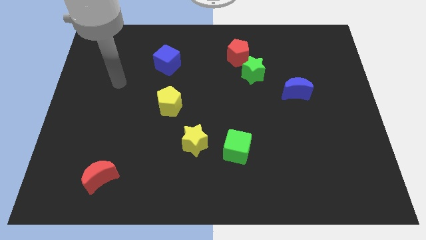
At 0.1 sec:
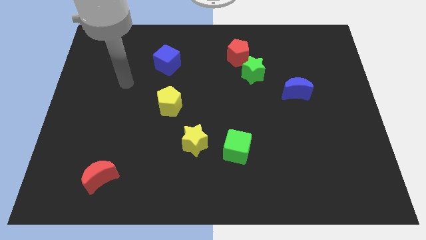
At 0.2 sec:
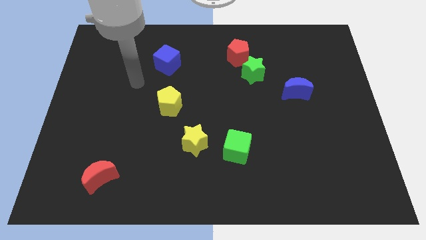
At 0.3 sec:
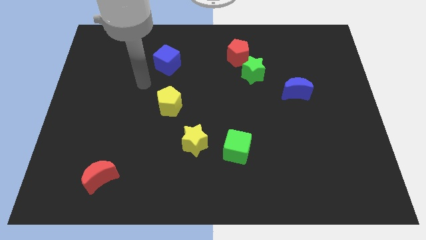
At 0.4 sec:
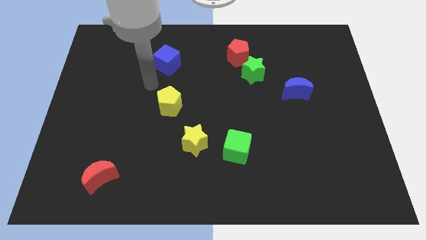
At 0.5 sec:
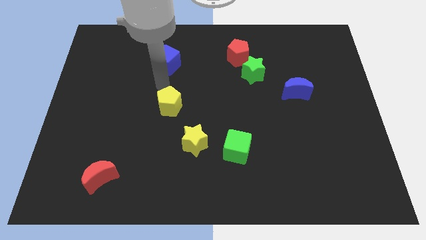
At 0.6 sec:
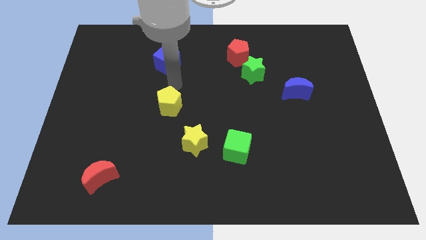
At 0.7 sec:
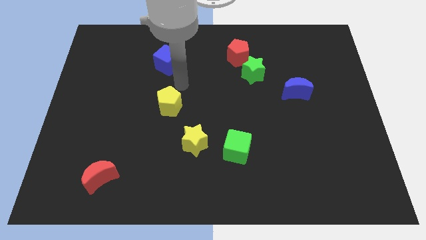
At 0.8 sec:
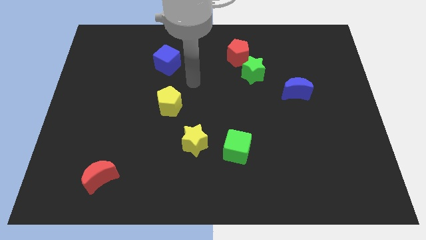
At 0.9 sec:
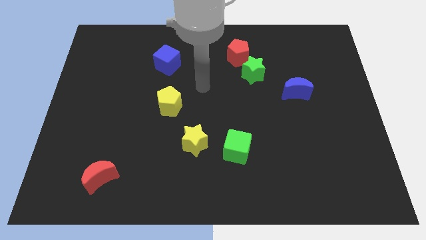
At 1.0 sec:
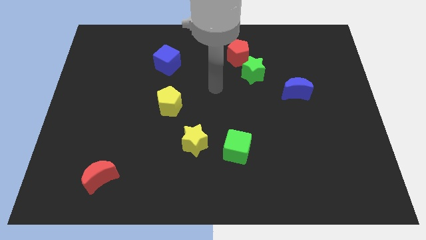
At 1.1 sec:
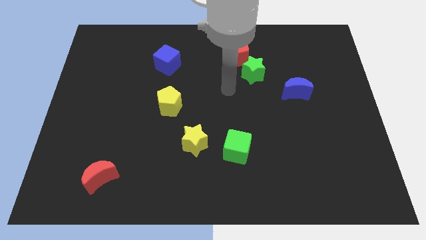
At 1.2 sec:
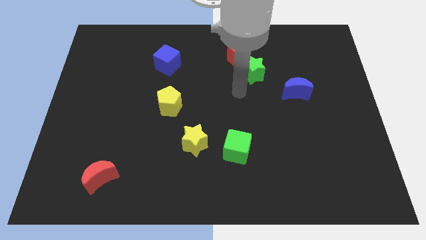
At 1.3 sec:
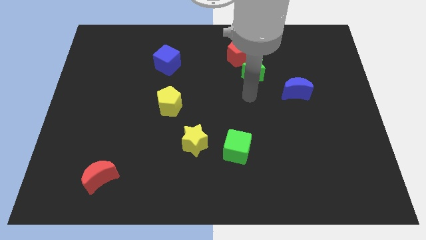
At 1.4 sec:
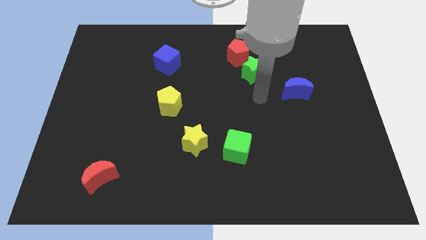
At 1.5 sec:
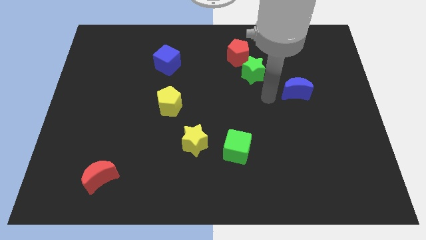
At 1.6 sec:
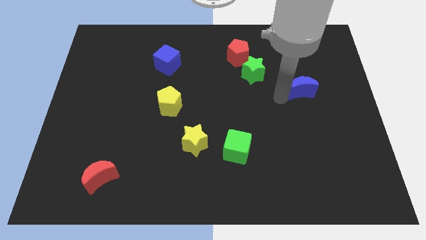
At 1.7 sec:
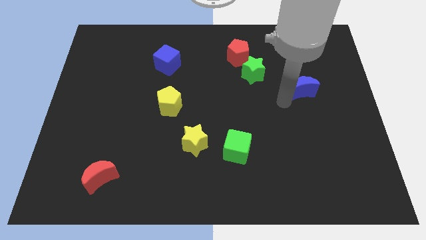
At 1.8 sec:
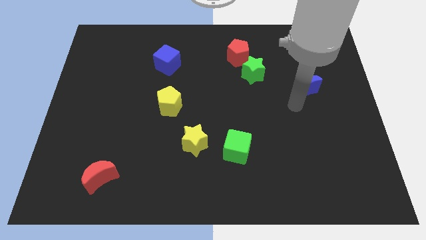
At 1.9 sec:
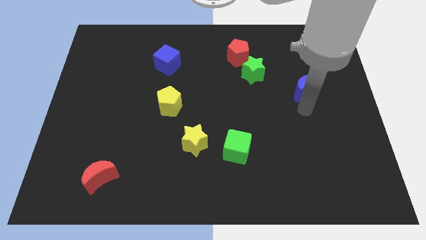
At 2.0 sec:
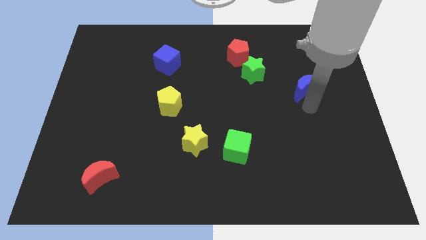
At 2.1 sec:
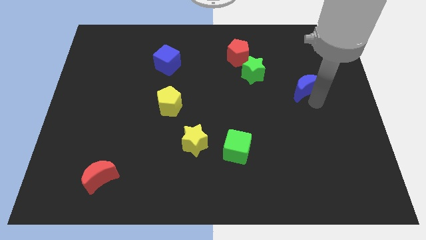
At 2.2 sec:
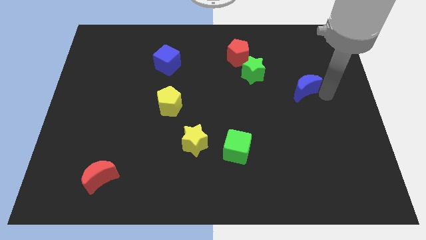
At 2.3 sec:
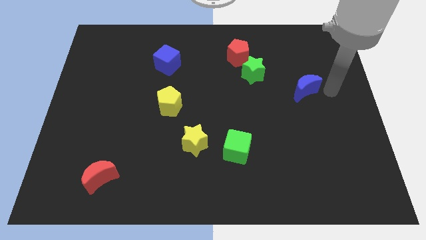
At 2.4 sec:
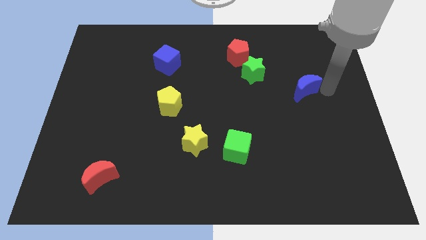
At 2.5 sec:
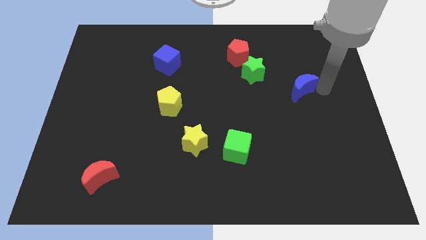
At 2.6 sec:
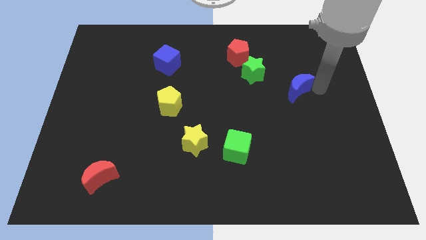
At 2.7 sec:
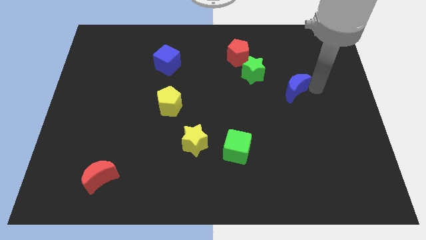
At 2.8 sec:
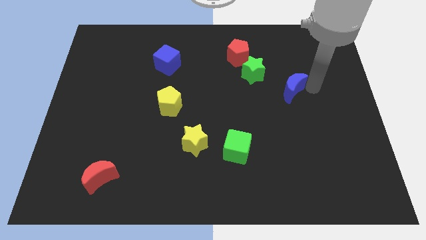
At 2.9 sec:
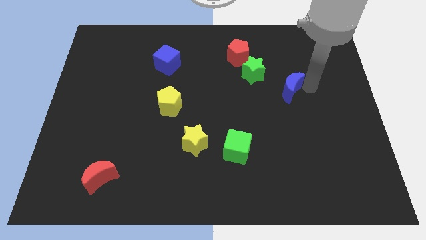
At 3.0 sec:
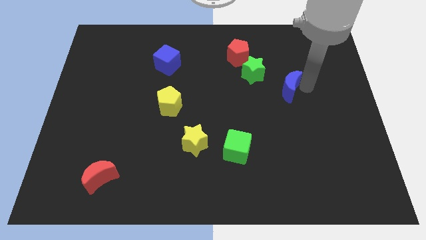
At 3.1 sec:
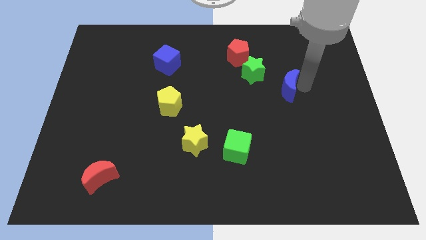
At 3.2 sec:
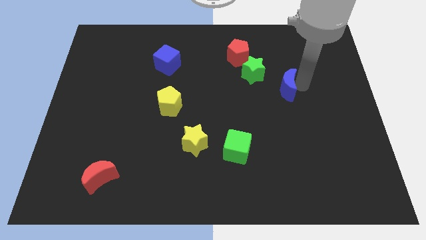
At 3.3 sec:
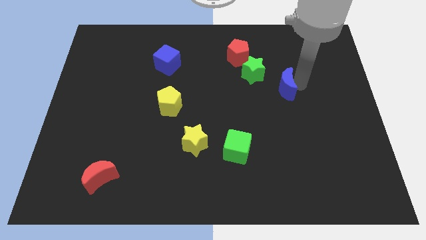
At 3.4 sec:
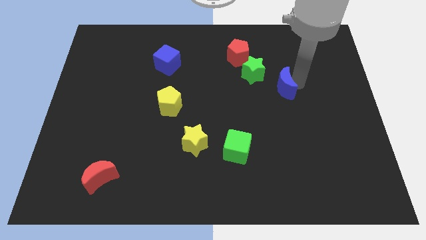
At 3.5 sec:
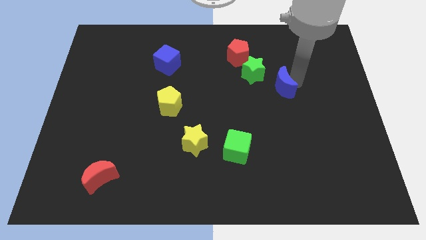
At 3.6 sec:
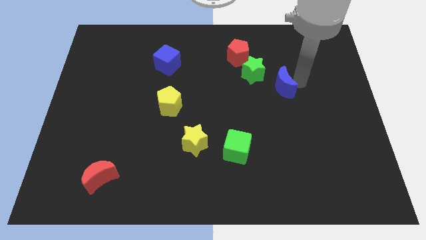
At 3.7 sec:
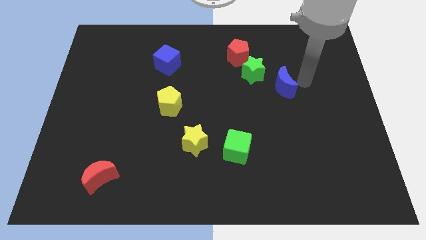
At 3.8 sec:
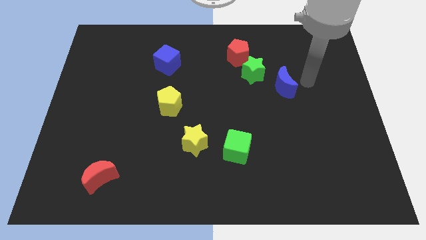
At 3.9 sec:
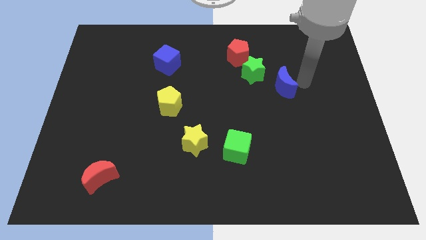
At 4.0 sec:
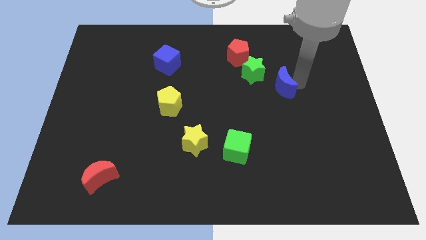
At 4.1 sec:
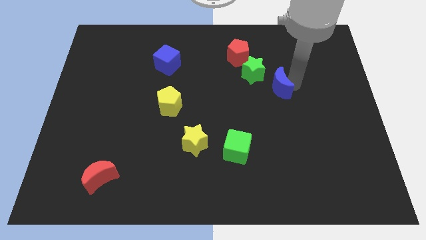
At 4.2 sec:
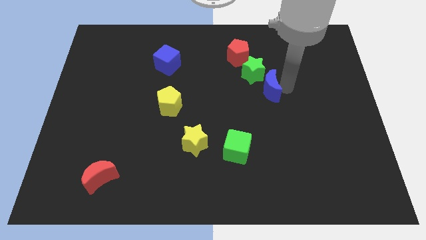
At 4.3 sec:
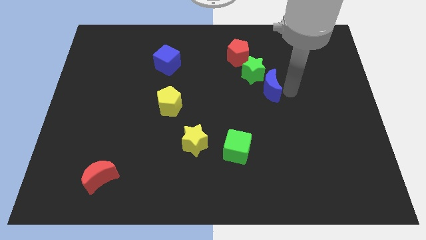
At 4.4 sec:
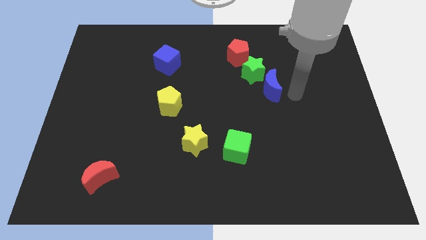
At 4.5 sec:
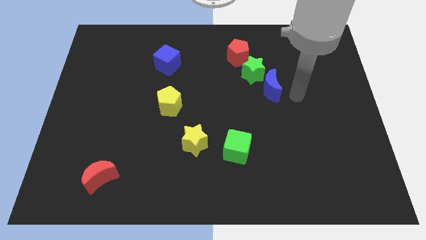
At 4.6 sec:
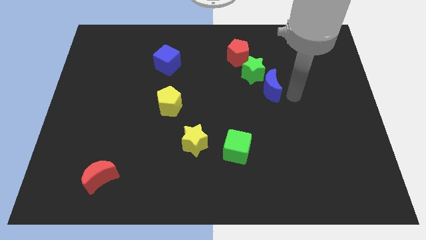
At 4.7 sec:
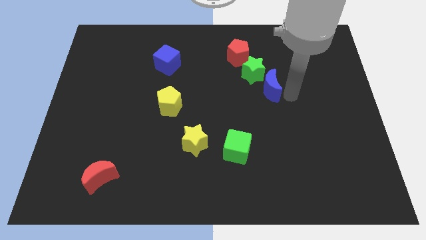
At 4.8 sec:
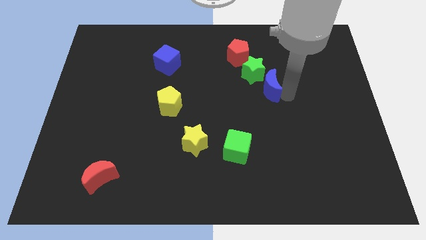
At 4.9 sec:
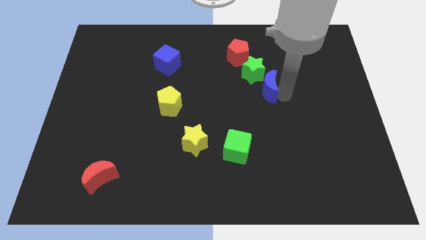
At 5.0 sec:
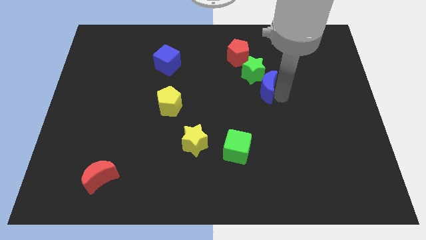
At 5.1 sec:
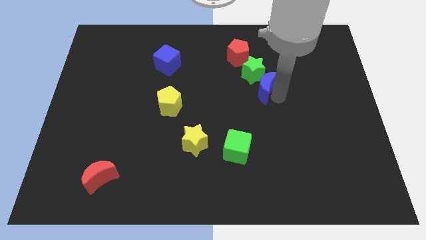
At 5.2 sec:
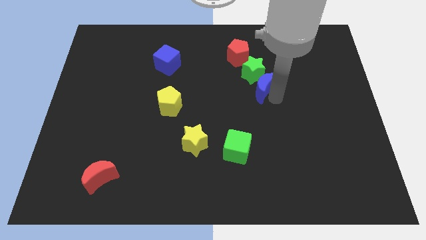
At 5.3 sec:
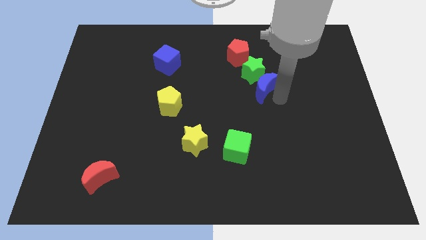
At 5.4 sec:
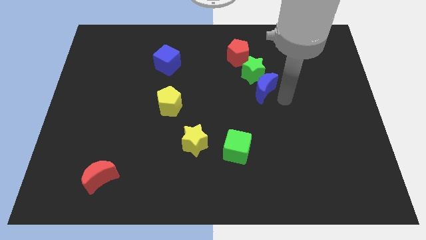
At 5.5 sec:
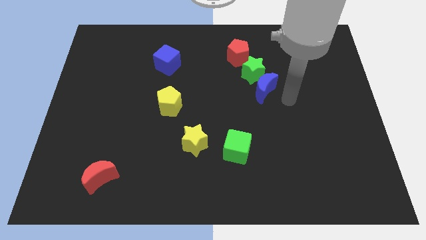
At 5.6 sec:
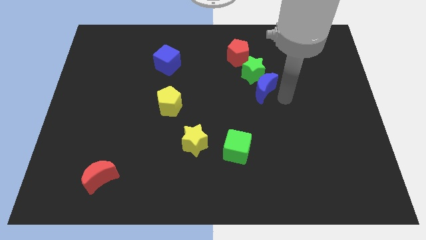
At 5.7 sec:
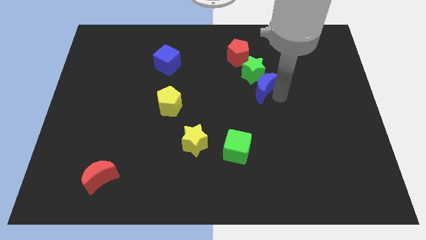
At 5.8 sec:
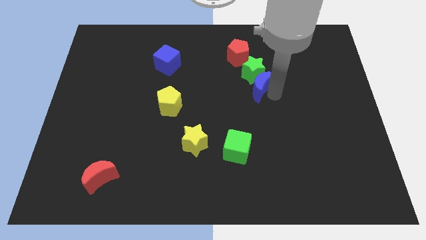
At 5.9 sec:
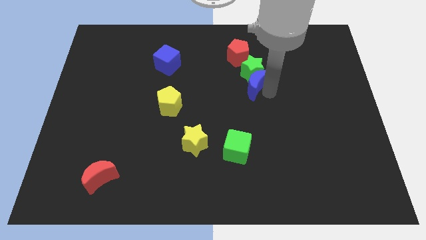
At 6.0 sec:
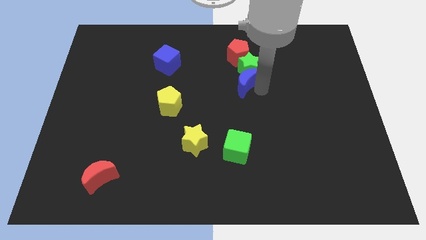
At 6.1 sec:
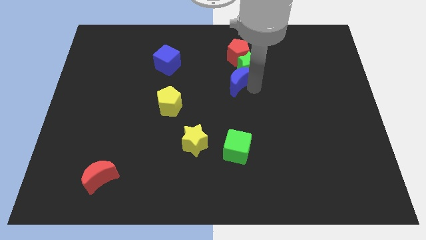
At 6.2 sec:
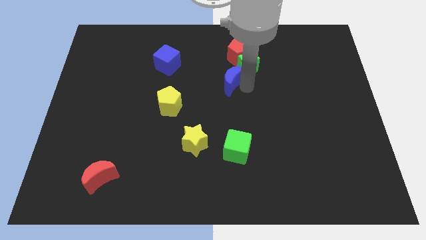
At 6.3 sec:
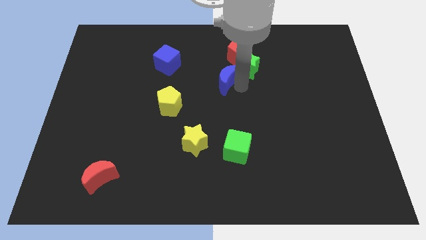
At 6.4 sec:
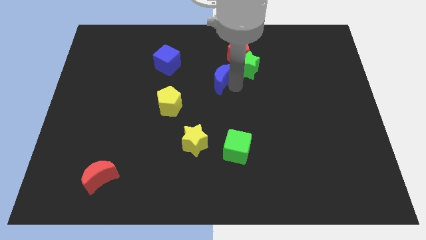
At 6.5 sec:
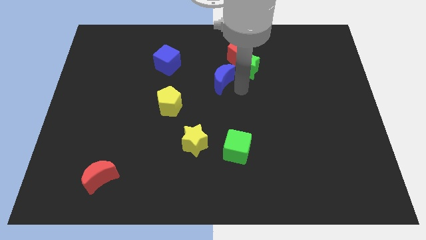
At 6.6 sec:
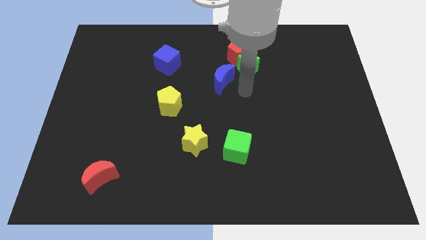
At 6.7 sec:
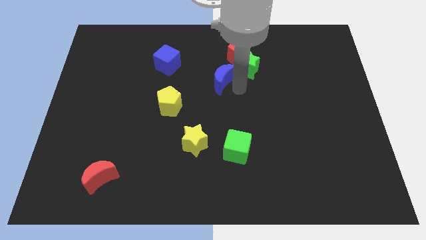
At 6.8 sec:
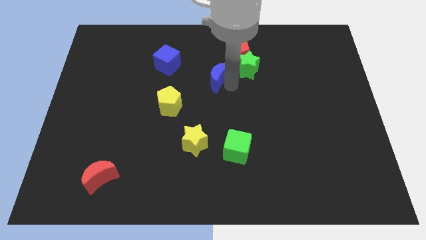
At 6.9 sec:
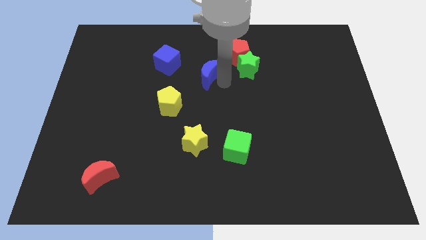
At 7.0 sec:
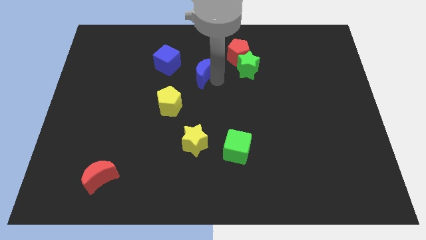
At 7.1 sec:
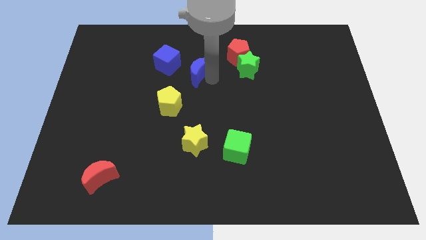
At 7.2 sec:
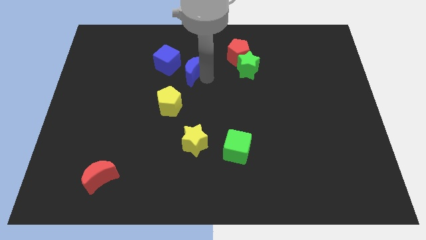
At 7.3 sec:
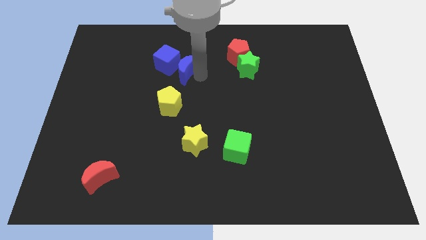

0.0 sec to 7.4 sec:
slide the blue moon towards the blue cube

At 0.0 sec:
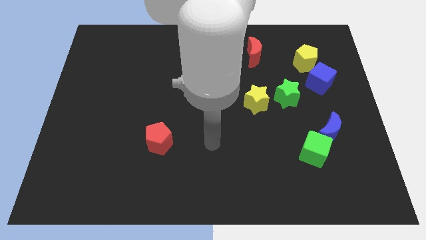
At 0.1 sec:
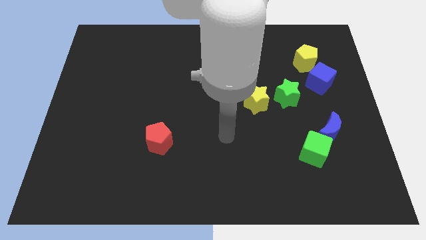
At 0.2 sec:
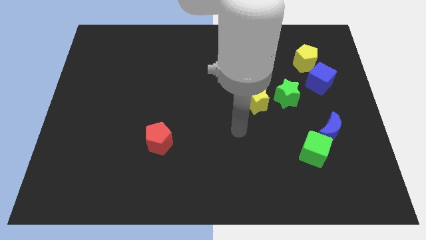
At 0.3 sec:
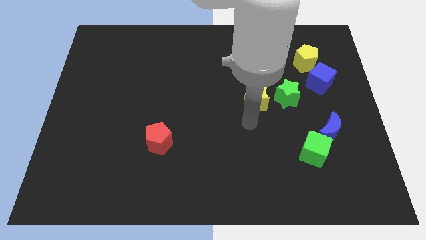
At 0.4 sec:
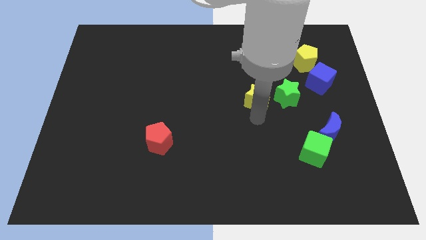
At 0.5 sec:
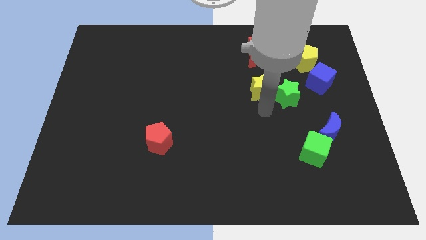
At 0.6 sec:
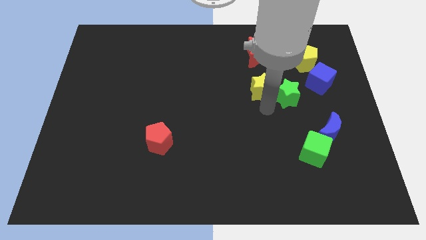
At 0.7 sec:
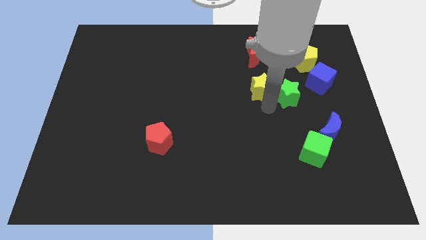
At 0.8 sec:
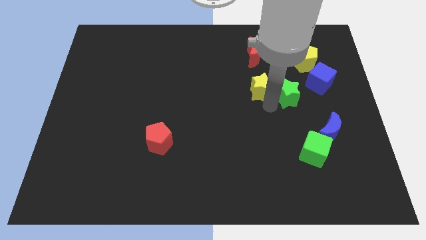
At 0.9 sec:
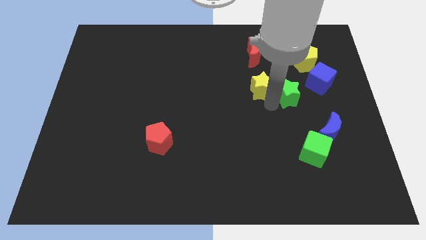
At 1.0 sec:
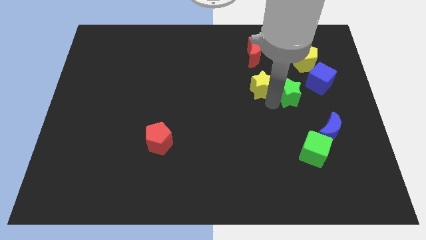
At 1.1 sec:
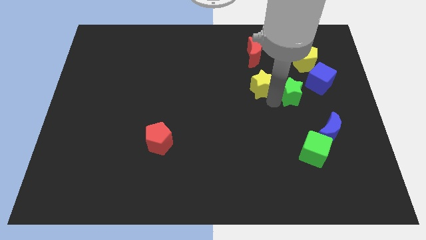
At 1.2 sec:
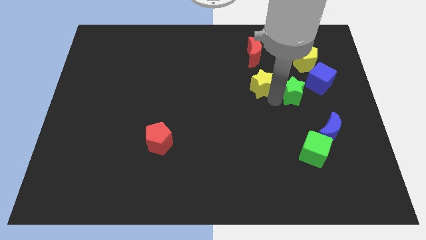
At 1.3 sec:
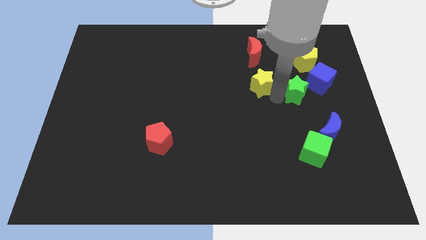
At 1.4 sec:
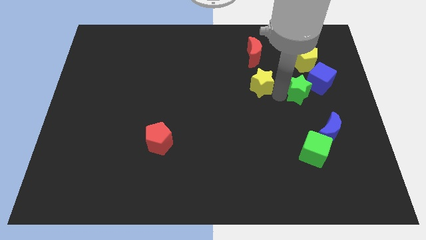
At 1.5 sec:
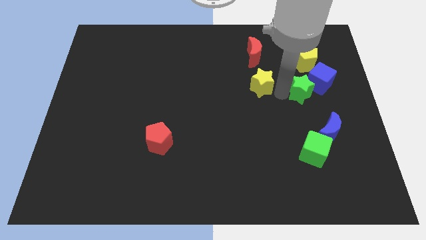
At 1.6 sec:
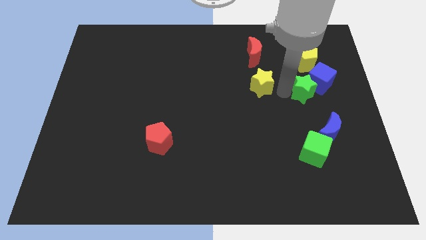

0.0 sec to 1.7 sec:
move the green star to the blue cube
